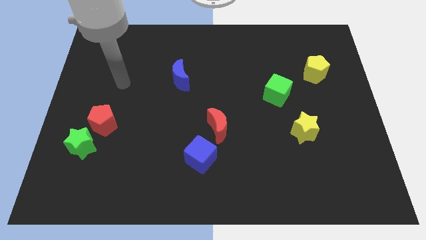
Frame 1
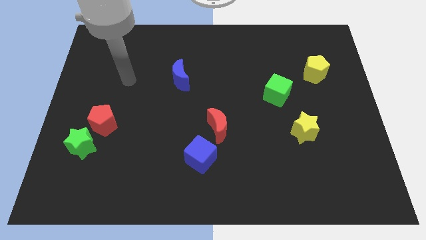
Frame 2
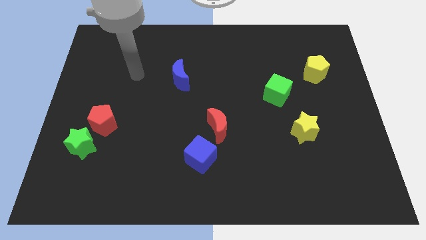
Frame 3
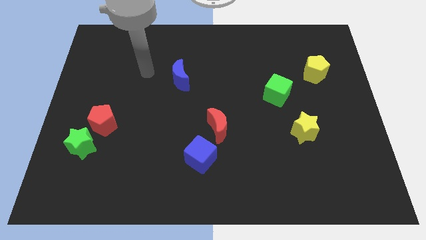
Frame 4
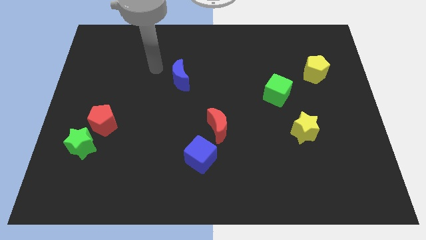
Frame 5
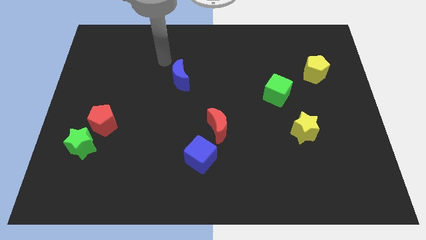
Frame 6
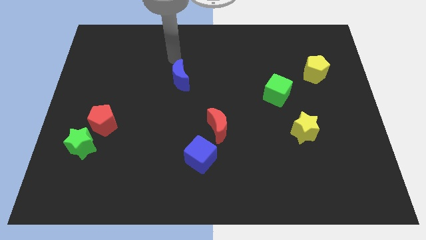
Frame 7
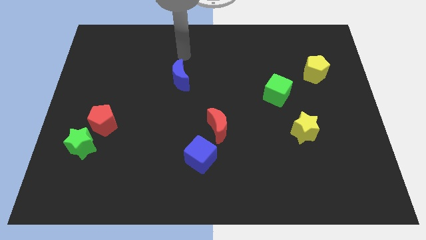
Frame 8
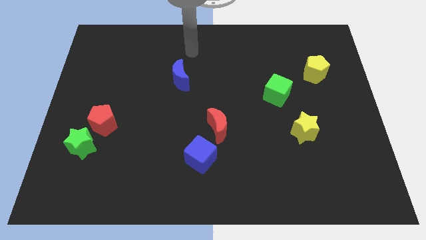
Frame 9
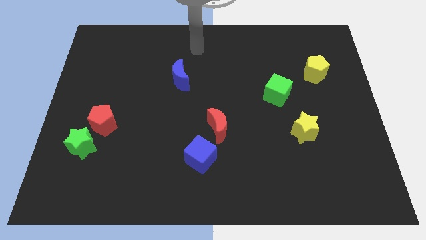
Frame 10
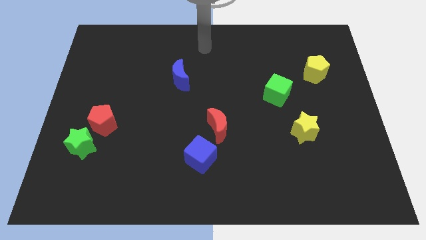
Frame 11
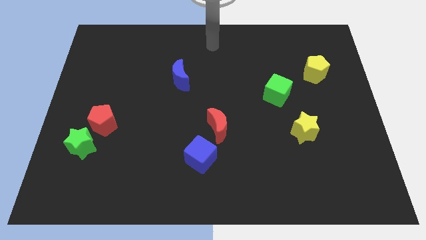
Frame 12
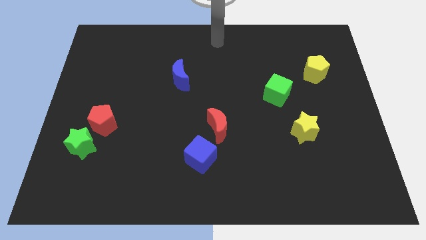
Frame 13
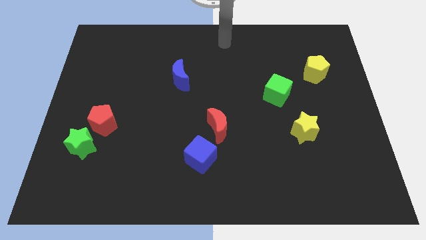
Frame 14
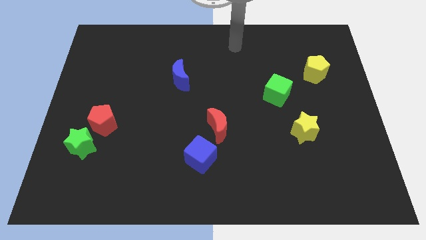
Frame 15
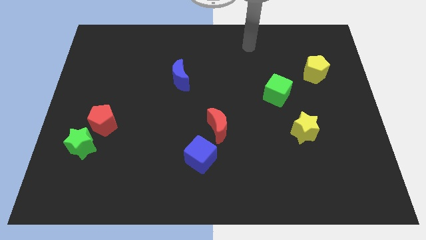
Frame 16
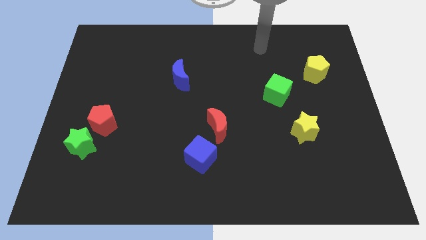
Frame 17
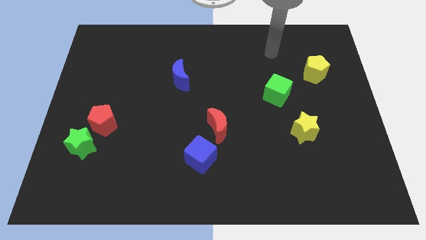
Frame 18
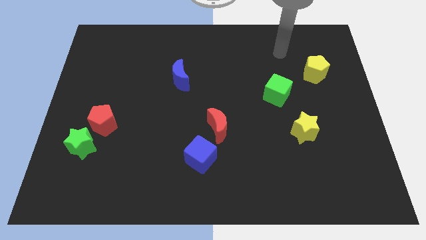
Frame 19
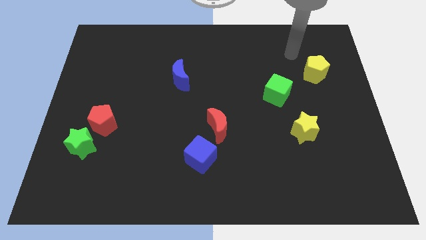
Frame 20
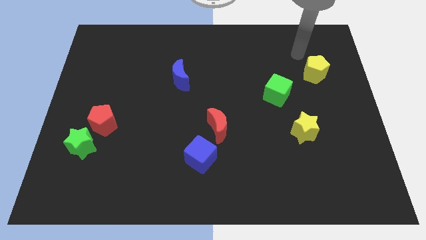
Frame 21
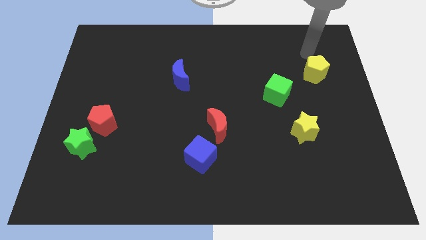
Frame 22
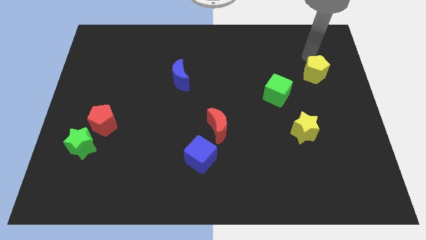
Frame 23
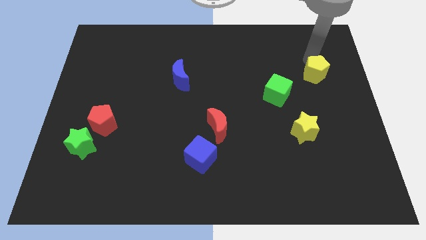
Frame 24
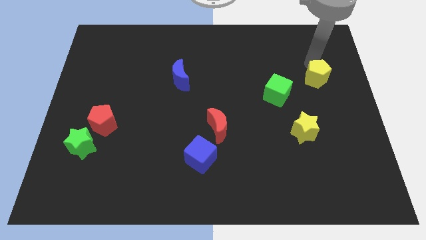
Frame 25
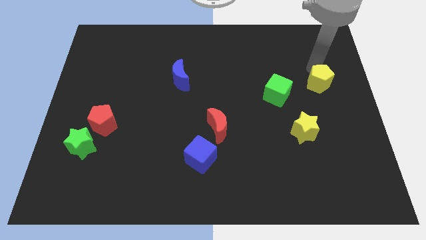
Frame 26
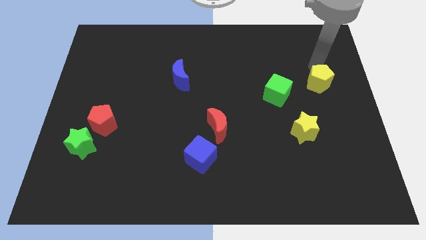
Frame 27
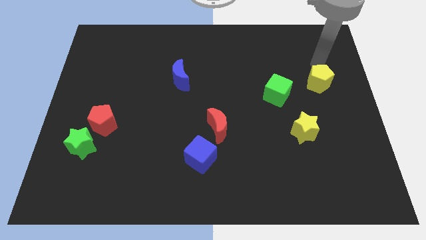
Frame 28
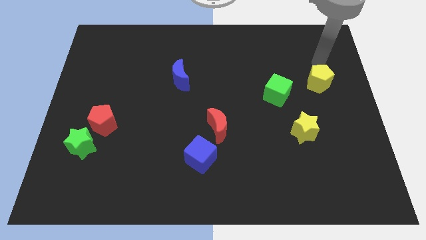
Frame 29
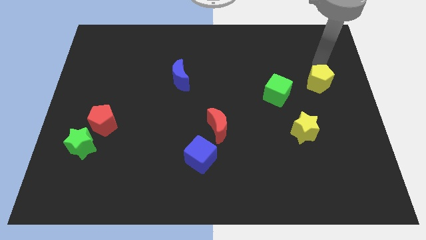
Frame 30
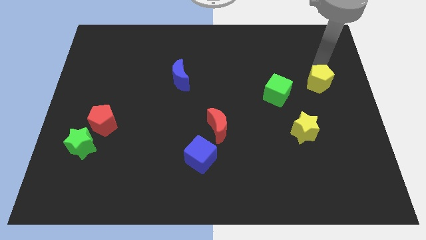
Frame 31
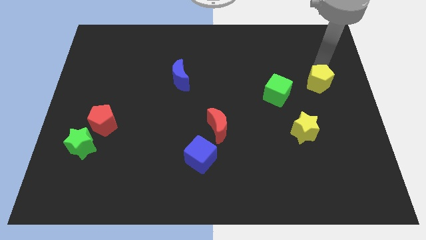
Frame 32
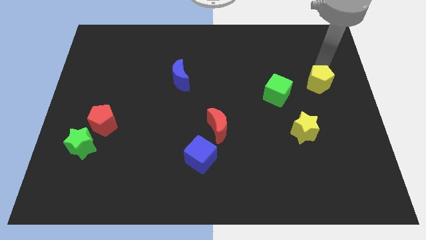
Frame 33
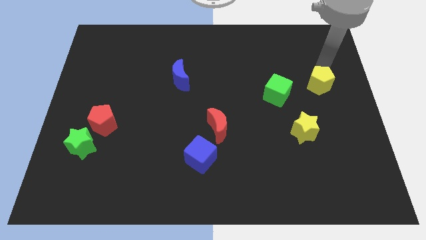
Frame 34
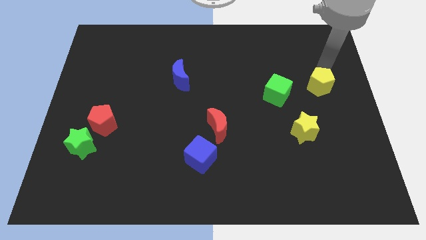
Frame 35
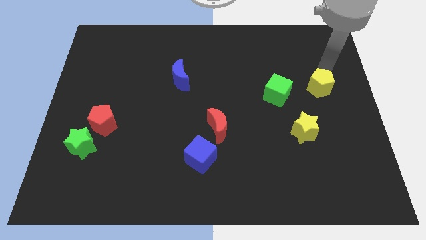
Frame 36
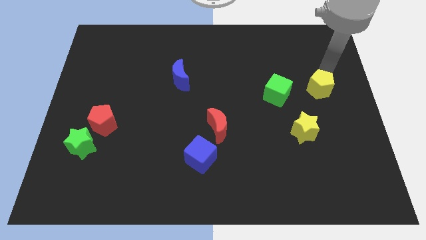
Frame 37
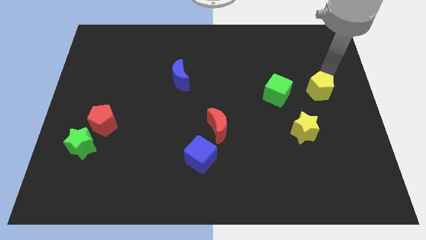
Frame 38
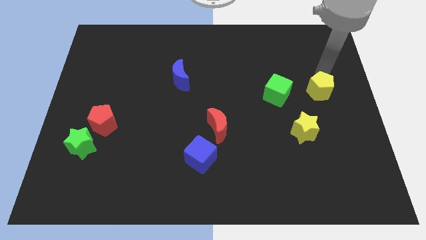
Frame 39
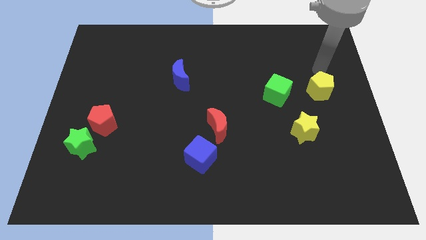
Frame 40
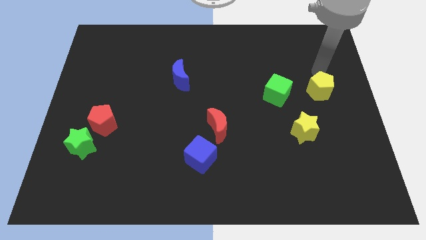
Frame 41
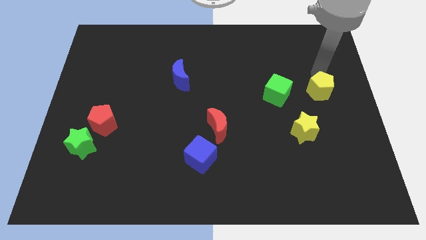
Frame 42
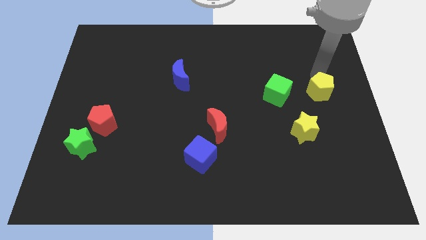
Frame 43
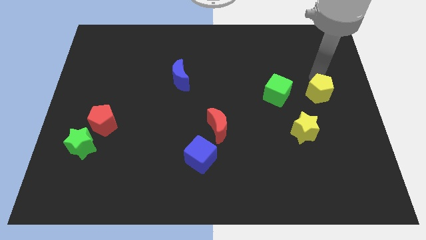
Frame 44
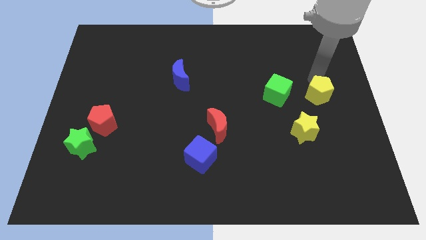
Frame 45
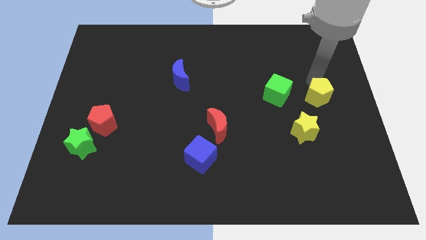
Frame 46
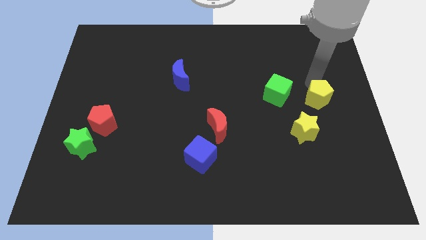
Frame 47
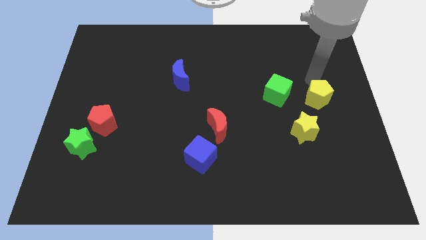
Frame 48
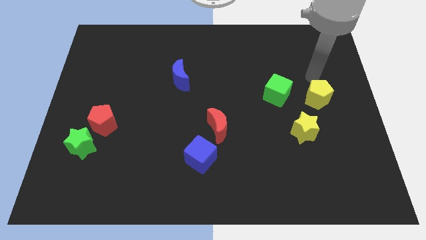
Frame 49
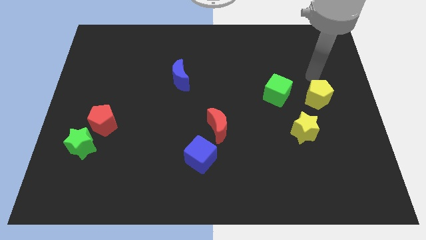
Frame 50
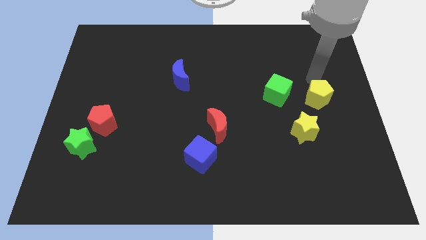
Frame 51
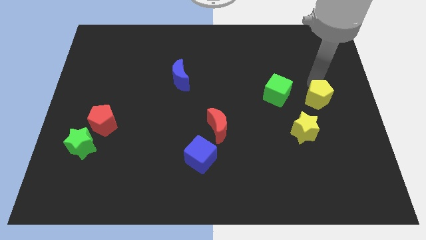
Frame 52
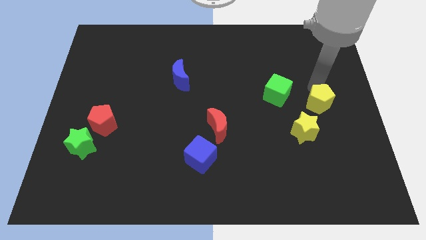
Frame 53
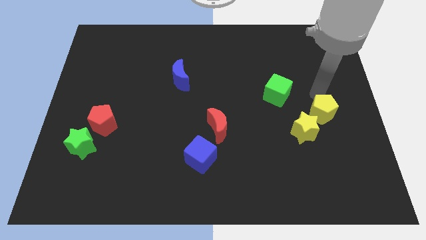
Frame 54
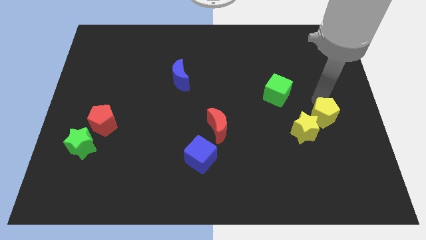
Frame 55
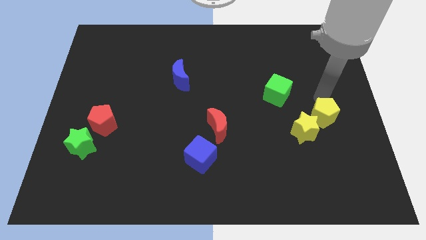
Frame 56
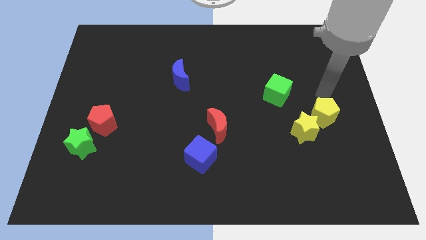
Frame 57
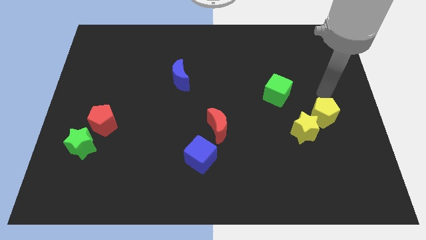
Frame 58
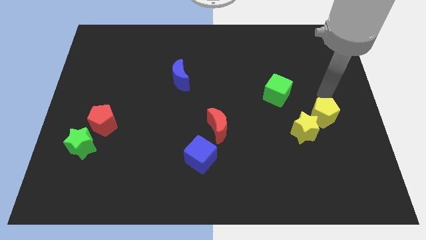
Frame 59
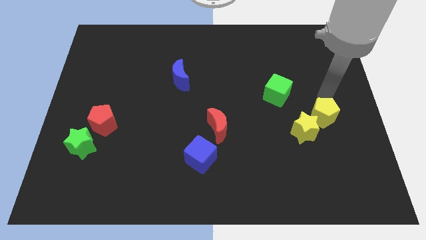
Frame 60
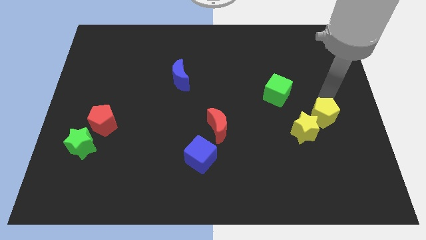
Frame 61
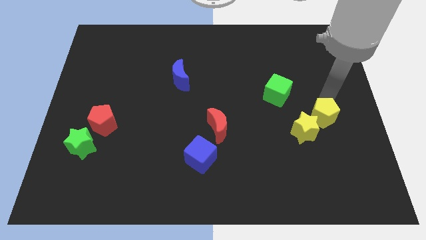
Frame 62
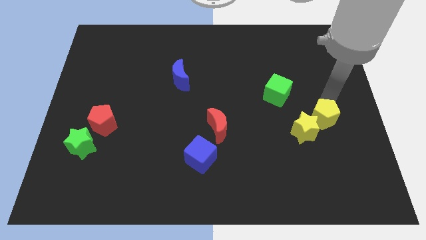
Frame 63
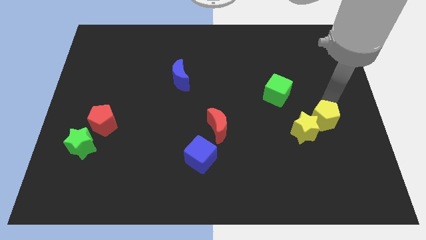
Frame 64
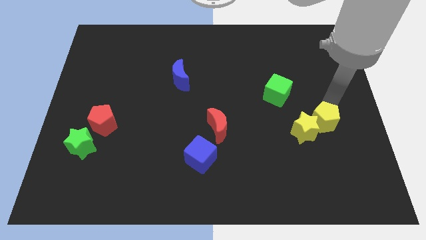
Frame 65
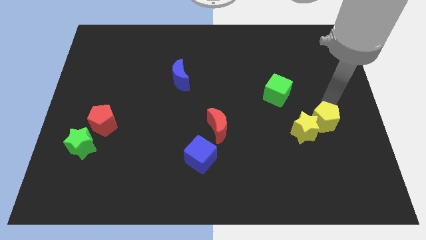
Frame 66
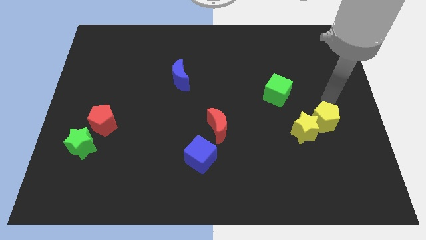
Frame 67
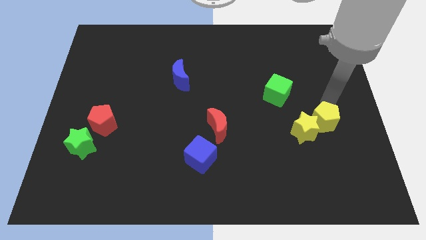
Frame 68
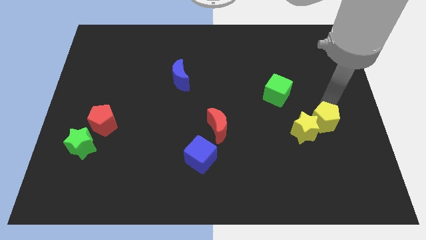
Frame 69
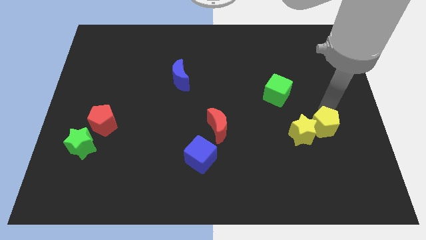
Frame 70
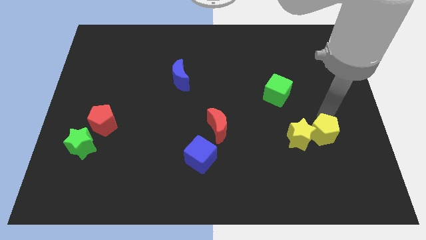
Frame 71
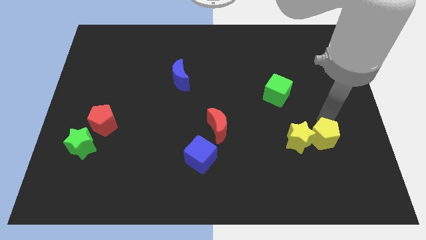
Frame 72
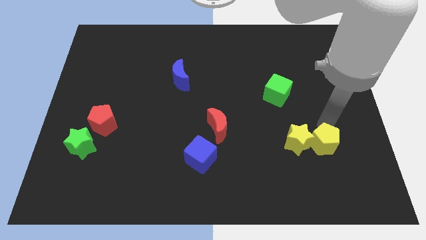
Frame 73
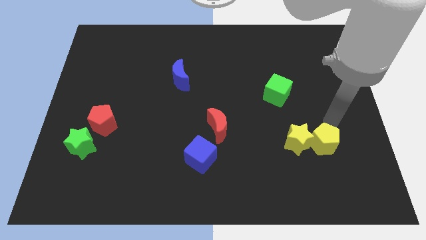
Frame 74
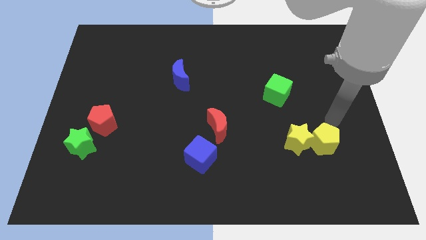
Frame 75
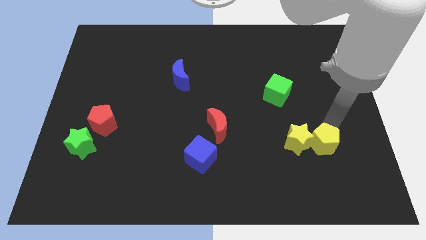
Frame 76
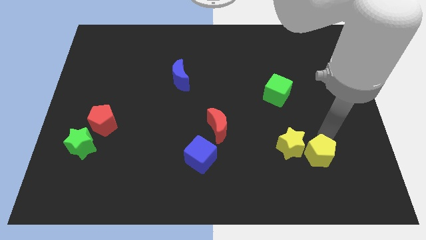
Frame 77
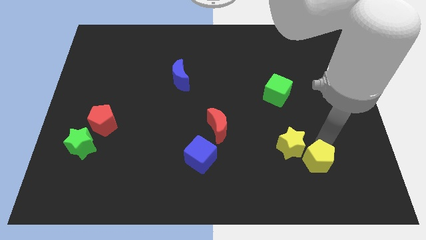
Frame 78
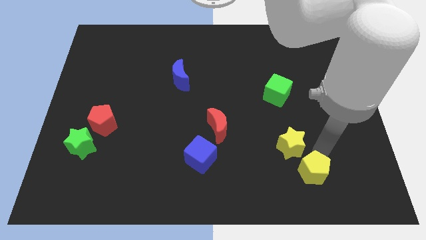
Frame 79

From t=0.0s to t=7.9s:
move the yellow pentagon below the yellow star
